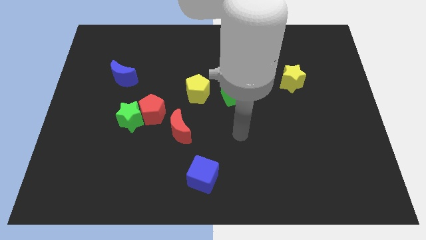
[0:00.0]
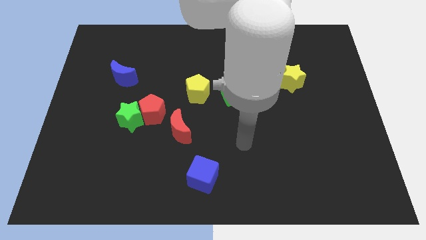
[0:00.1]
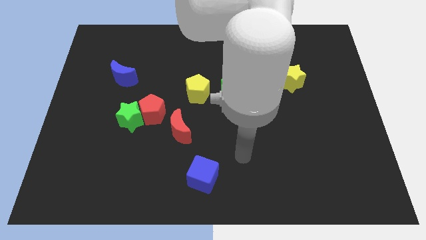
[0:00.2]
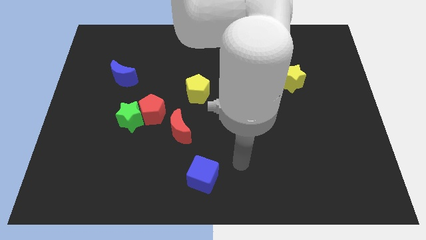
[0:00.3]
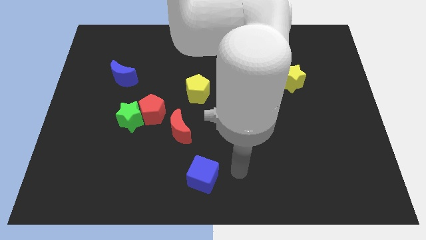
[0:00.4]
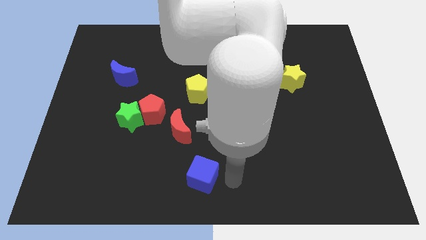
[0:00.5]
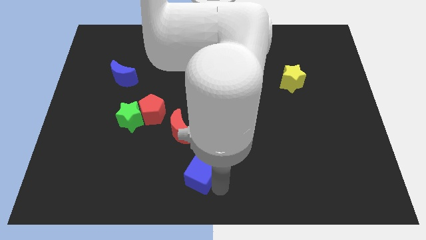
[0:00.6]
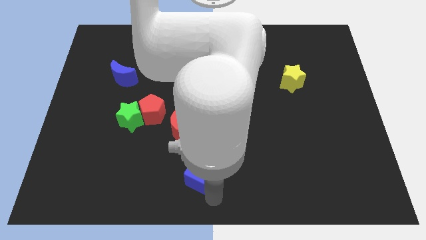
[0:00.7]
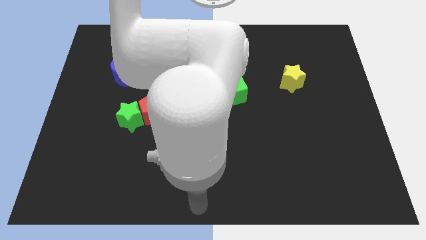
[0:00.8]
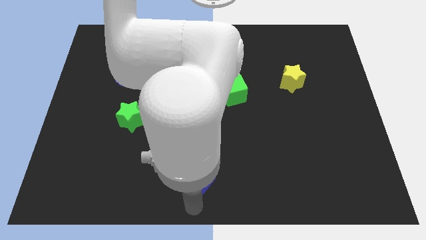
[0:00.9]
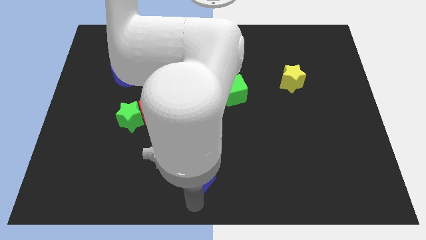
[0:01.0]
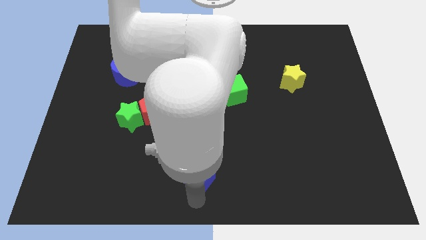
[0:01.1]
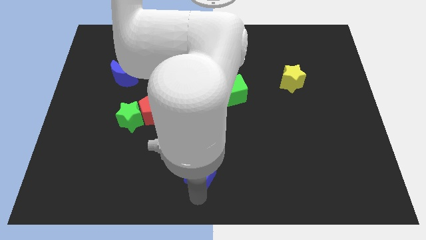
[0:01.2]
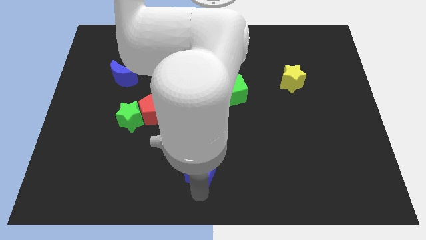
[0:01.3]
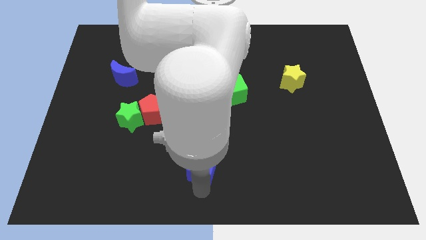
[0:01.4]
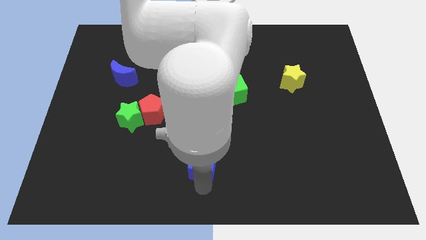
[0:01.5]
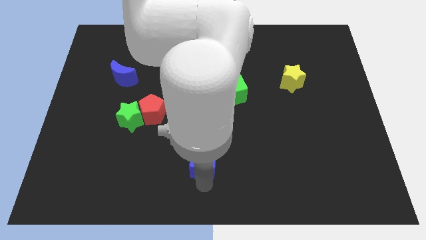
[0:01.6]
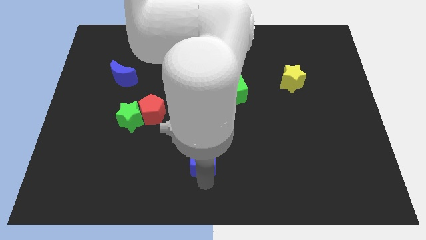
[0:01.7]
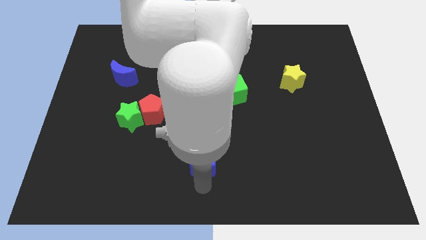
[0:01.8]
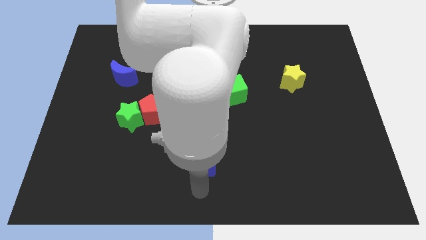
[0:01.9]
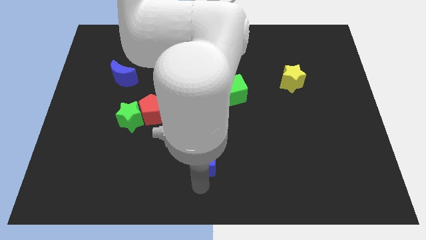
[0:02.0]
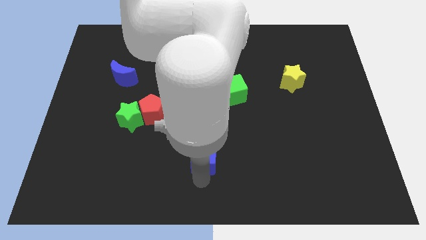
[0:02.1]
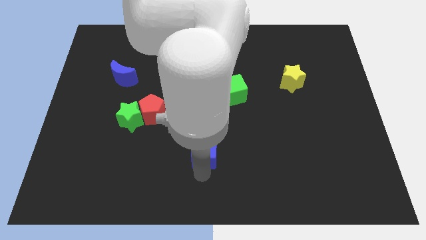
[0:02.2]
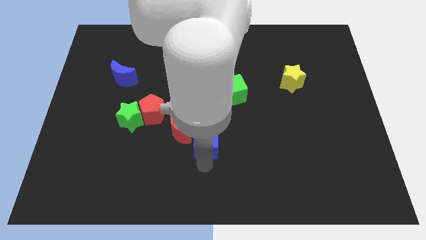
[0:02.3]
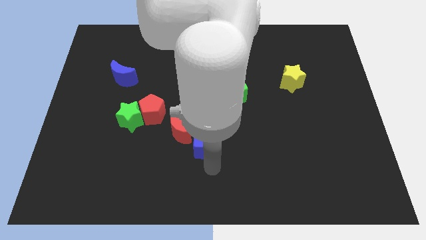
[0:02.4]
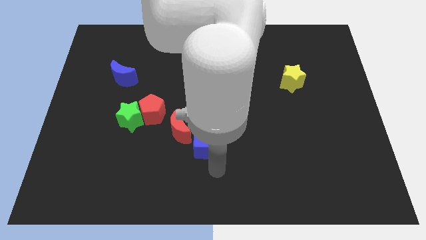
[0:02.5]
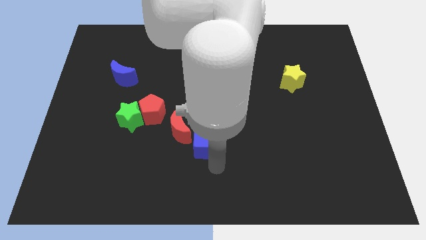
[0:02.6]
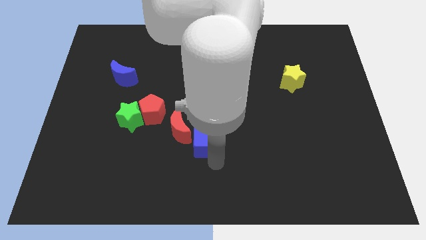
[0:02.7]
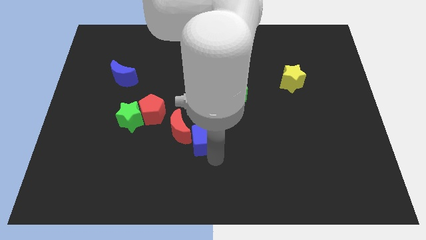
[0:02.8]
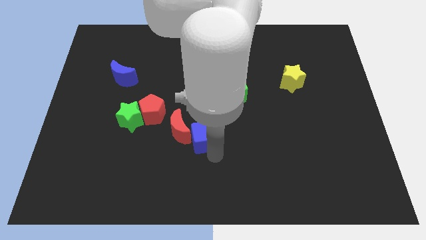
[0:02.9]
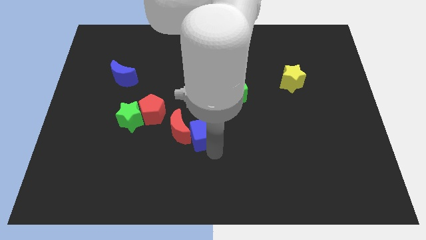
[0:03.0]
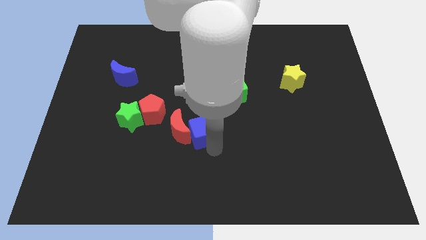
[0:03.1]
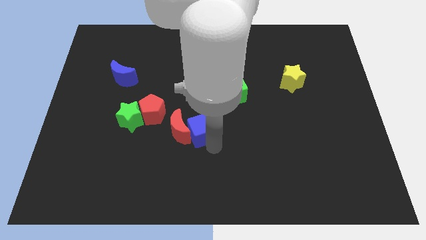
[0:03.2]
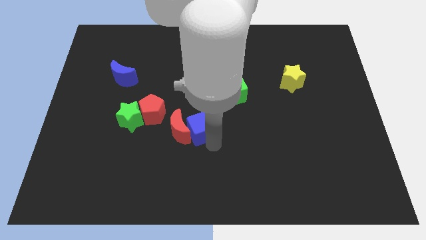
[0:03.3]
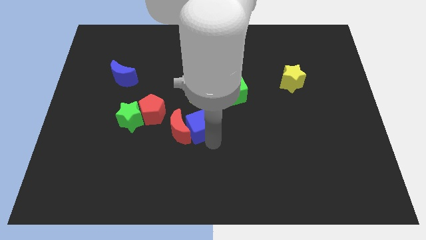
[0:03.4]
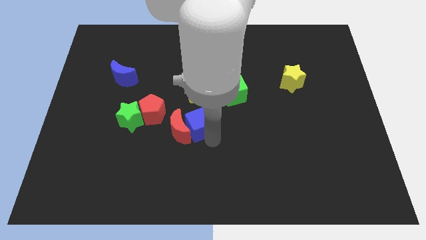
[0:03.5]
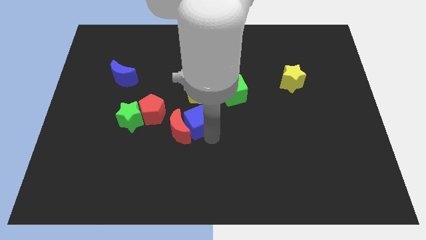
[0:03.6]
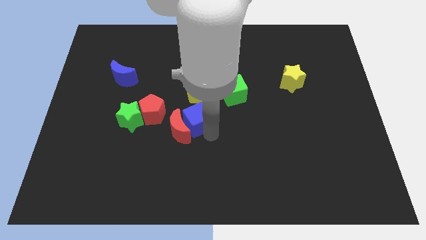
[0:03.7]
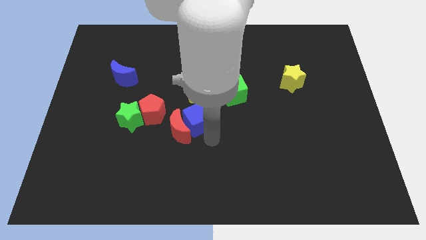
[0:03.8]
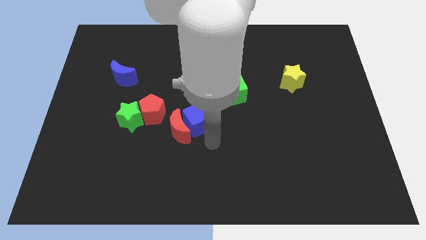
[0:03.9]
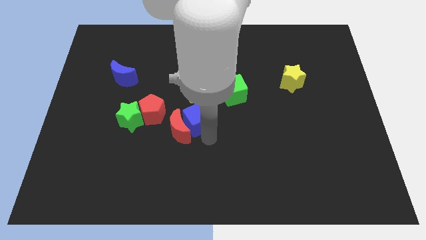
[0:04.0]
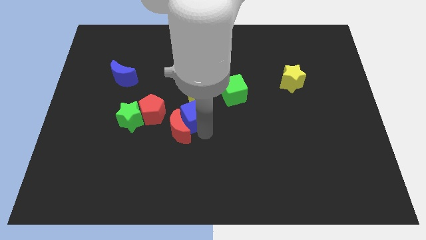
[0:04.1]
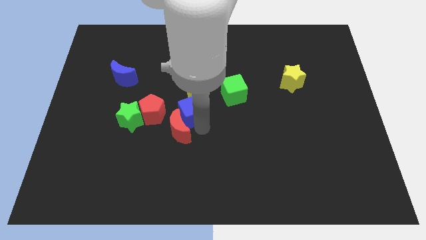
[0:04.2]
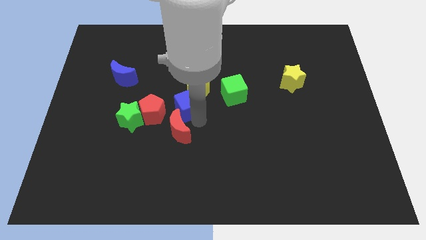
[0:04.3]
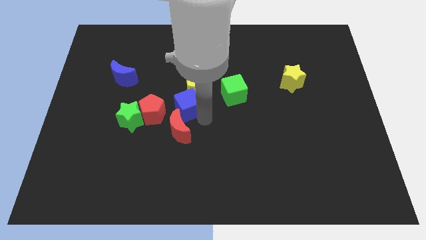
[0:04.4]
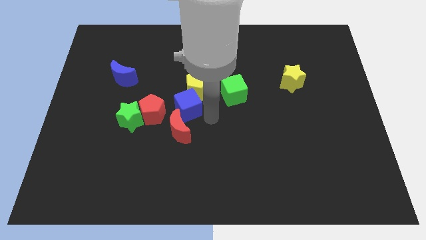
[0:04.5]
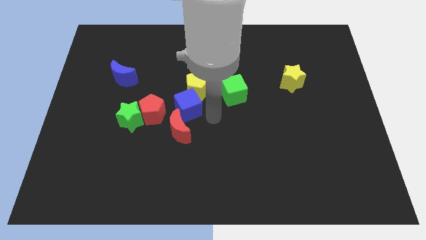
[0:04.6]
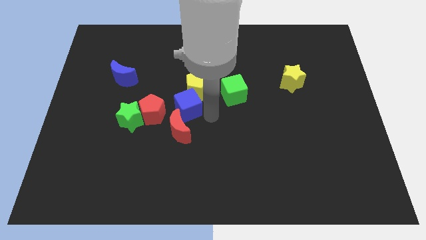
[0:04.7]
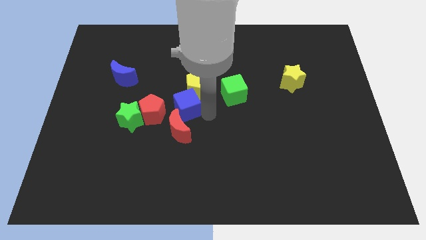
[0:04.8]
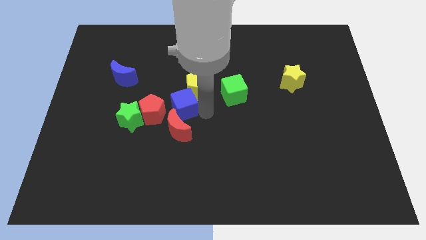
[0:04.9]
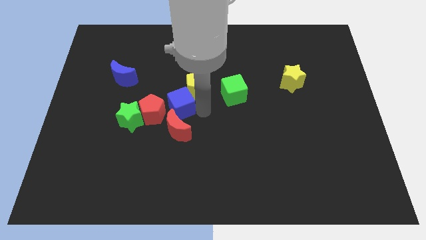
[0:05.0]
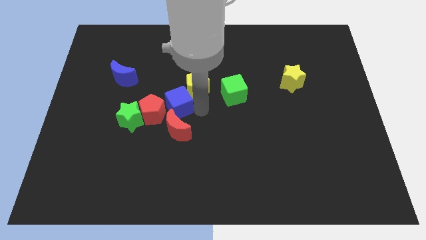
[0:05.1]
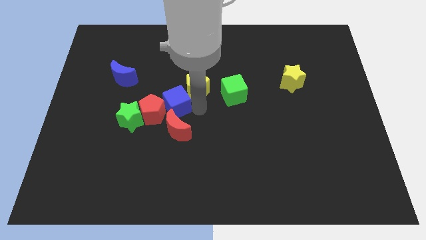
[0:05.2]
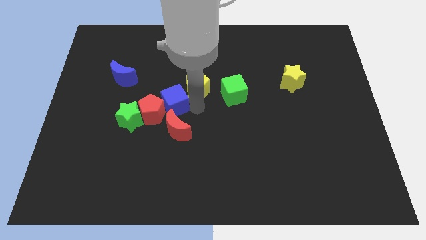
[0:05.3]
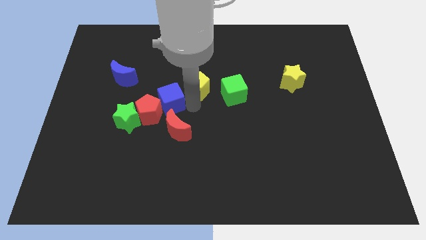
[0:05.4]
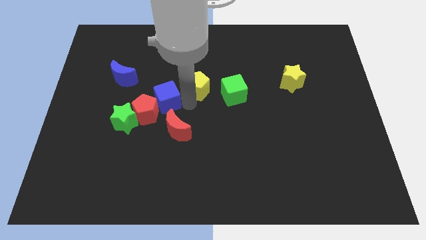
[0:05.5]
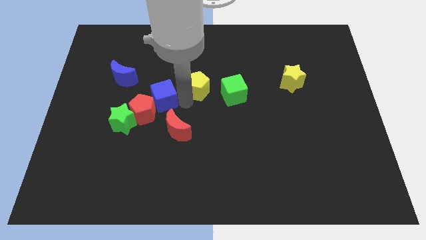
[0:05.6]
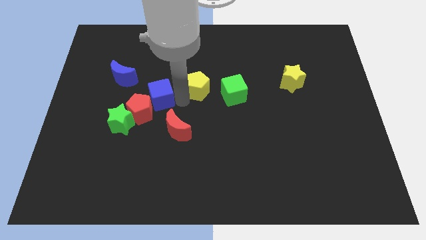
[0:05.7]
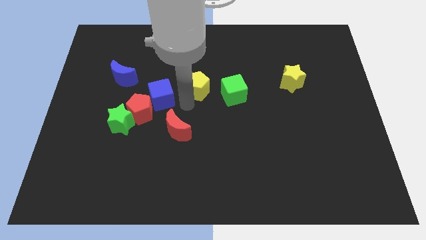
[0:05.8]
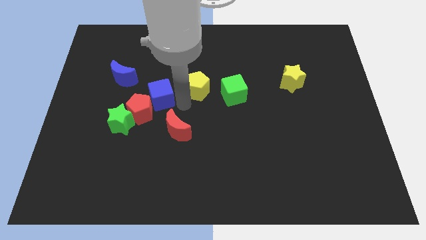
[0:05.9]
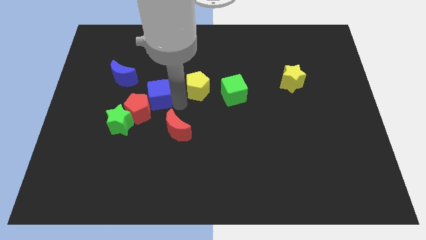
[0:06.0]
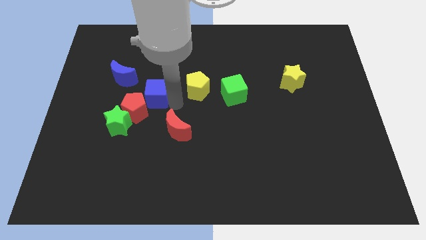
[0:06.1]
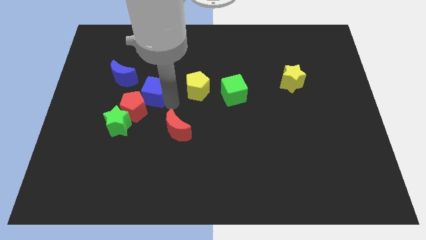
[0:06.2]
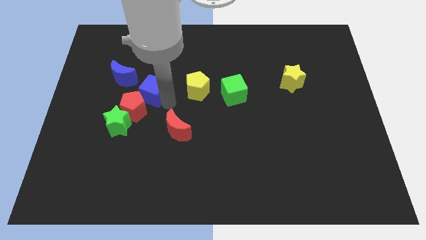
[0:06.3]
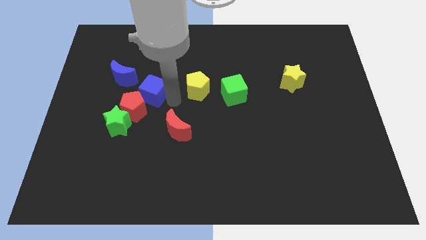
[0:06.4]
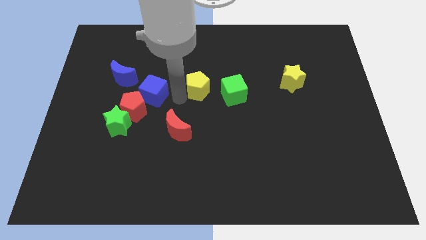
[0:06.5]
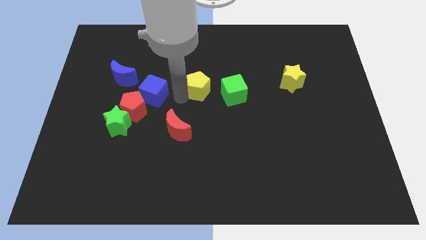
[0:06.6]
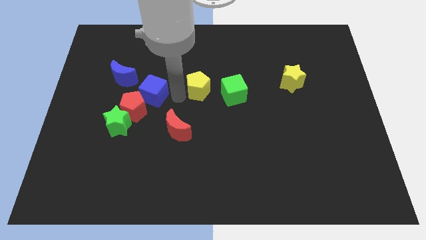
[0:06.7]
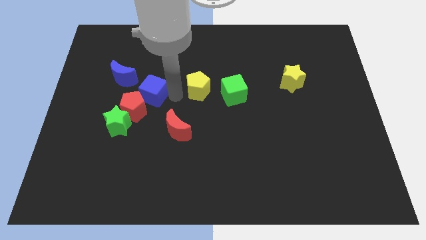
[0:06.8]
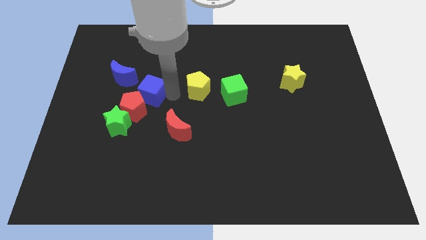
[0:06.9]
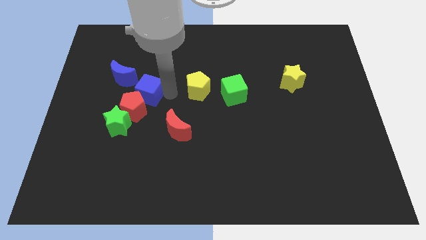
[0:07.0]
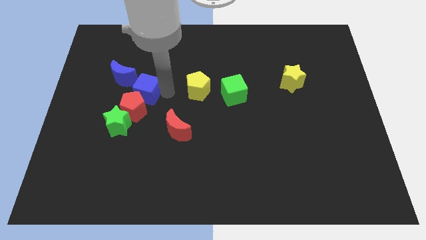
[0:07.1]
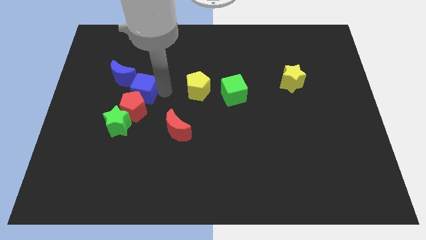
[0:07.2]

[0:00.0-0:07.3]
slide the blue cube to the top side of the green star
